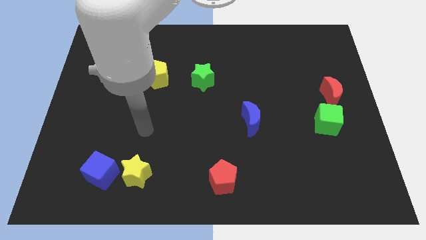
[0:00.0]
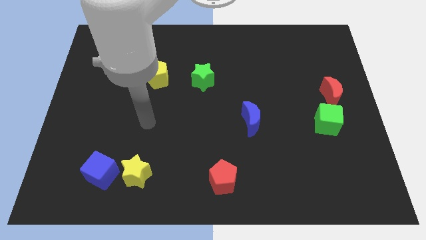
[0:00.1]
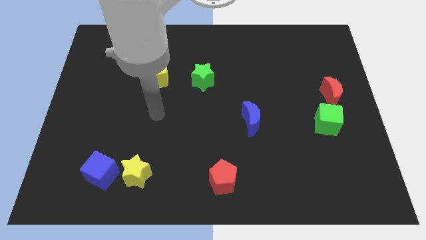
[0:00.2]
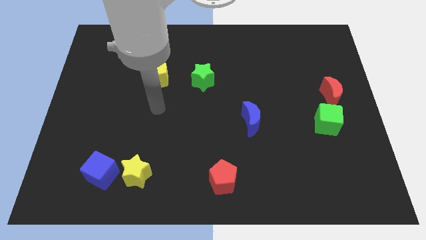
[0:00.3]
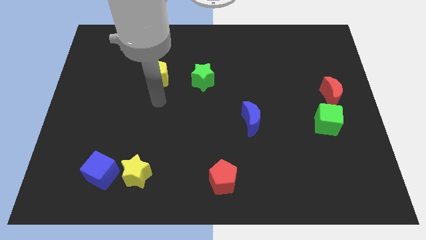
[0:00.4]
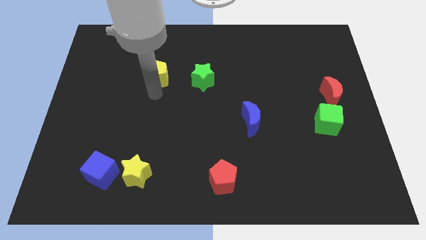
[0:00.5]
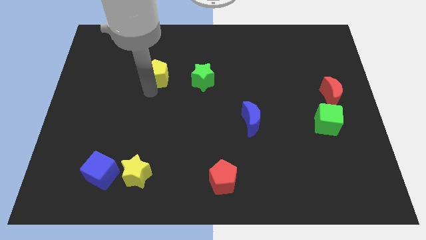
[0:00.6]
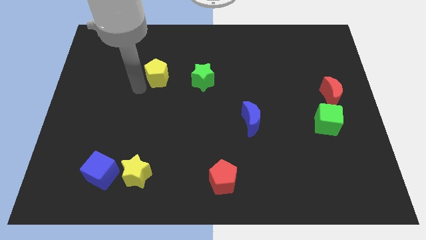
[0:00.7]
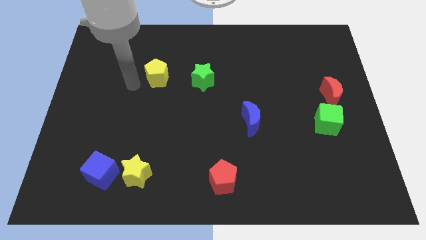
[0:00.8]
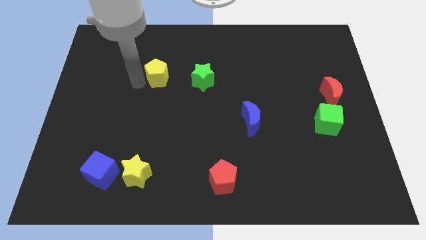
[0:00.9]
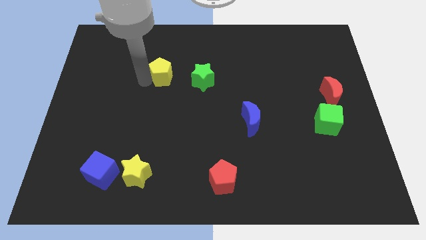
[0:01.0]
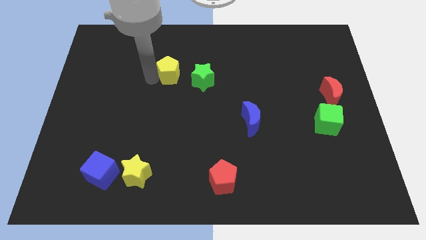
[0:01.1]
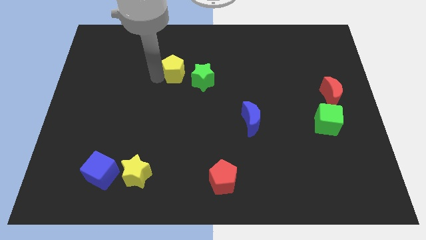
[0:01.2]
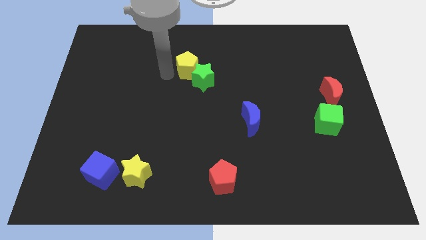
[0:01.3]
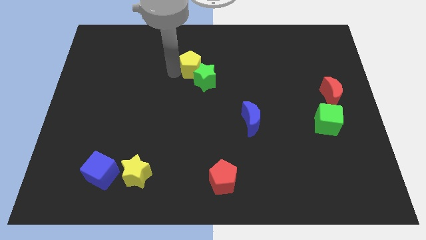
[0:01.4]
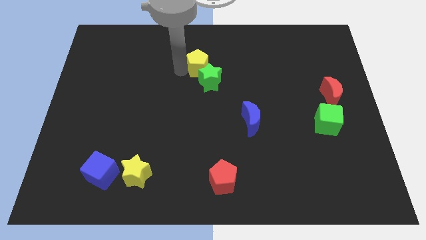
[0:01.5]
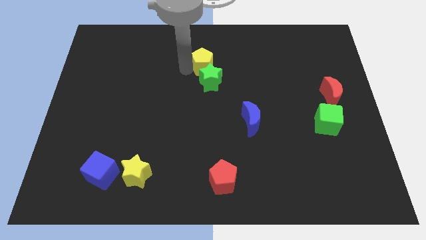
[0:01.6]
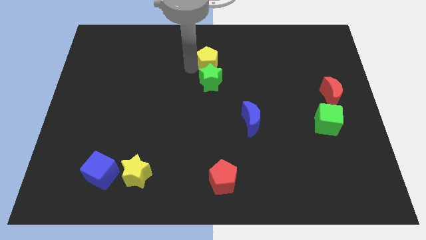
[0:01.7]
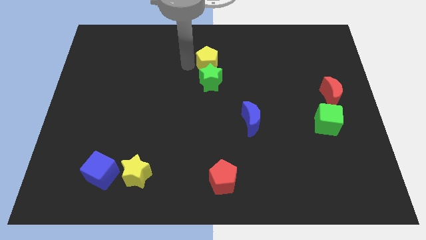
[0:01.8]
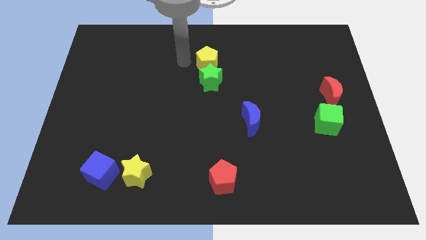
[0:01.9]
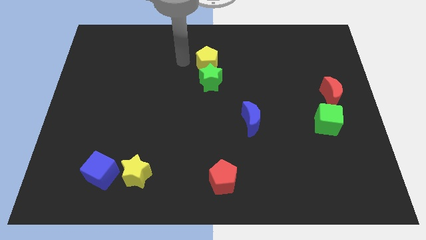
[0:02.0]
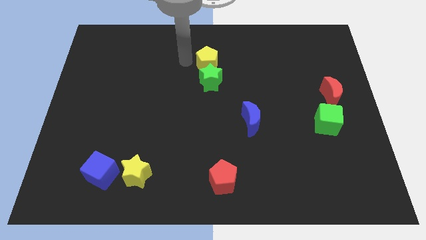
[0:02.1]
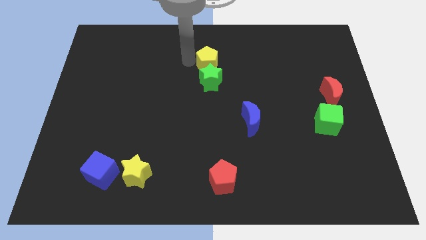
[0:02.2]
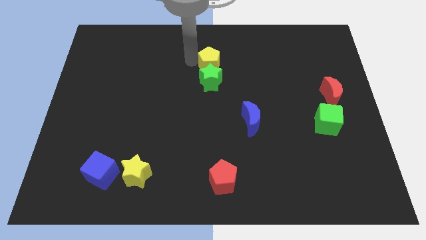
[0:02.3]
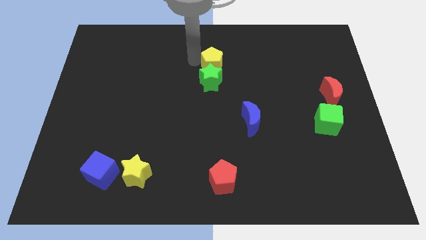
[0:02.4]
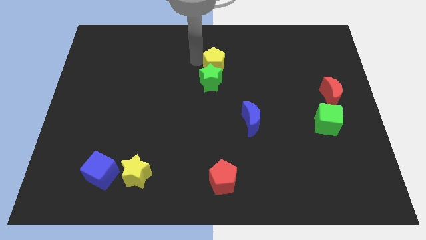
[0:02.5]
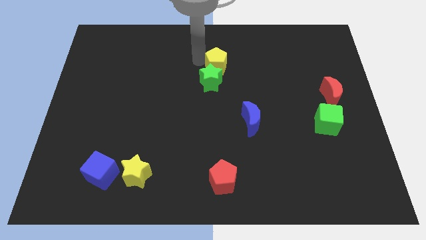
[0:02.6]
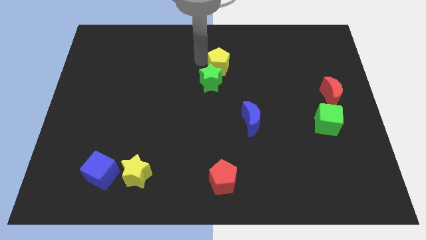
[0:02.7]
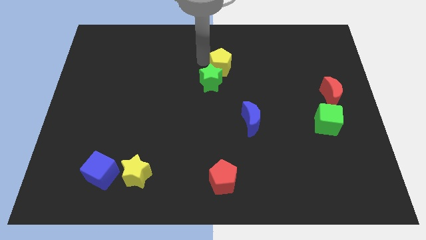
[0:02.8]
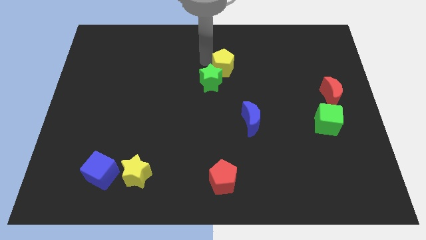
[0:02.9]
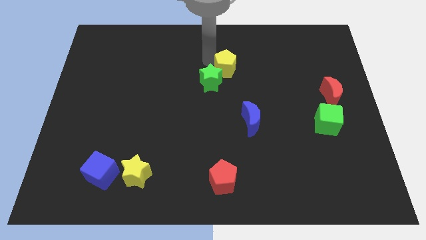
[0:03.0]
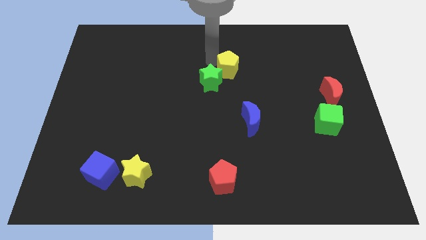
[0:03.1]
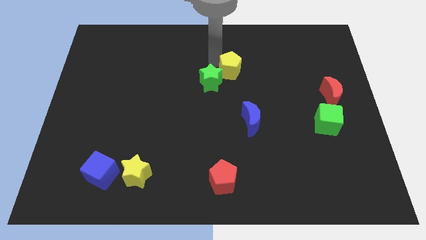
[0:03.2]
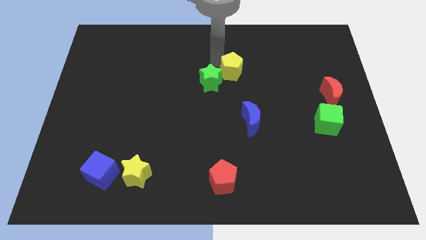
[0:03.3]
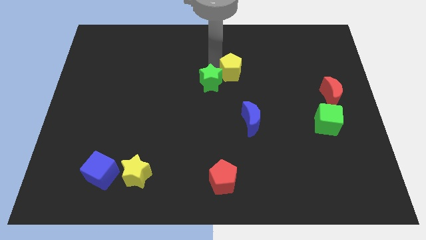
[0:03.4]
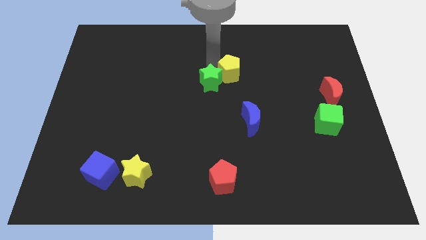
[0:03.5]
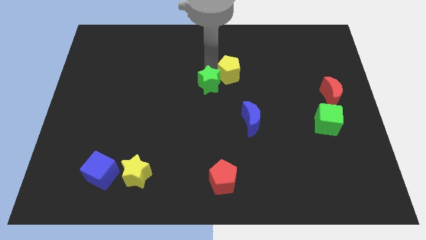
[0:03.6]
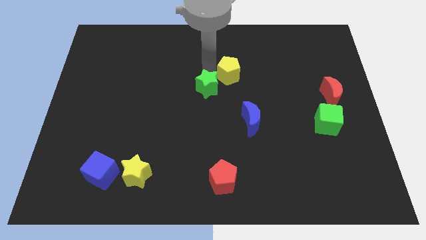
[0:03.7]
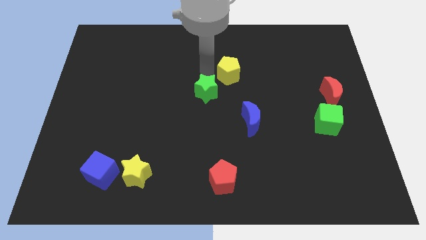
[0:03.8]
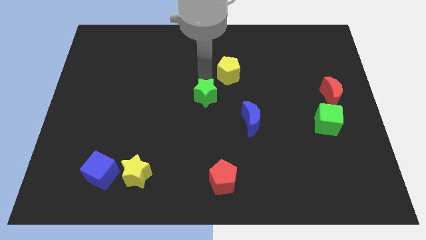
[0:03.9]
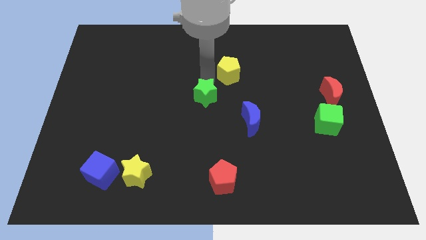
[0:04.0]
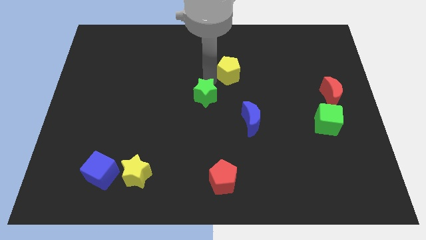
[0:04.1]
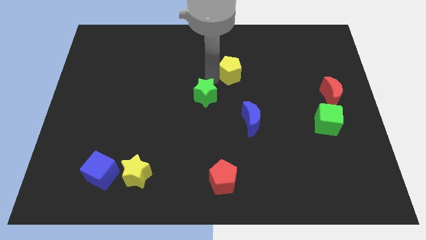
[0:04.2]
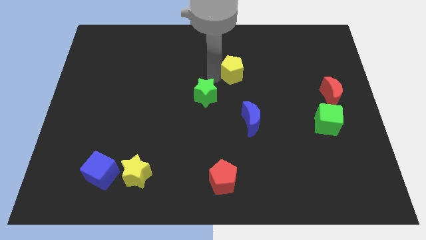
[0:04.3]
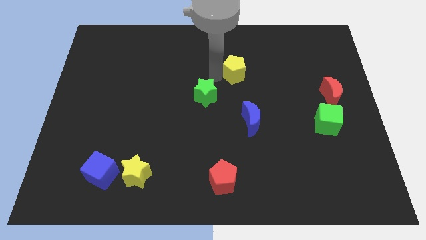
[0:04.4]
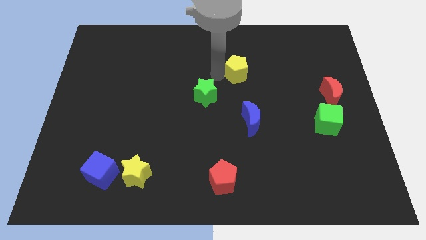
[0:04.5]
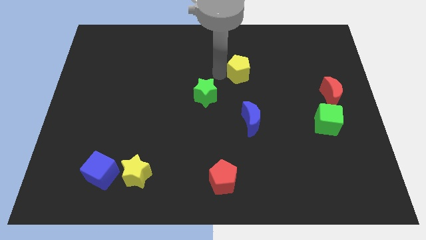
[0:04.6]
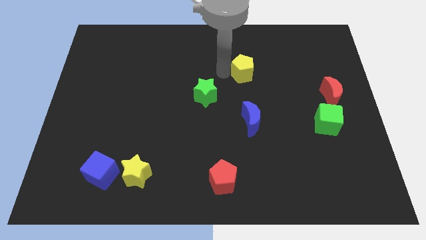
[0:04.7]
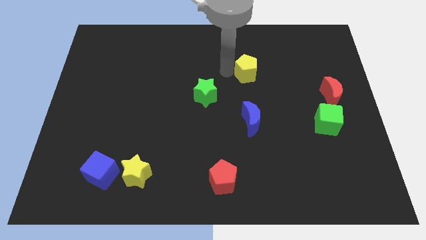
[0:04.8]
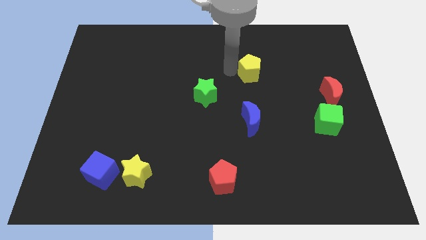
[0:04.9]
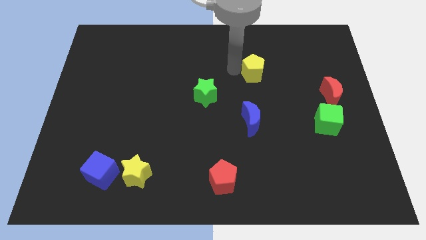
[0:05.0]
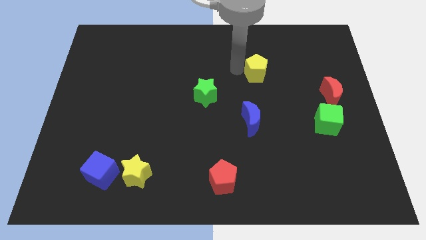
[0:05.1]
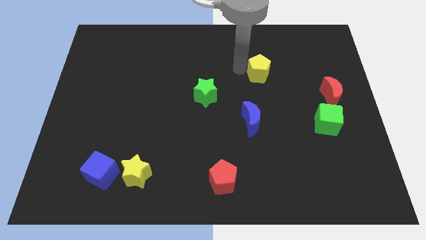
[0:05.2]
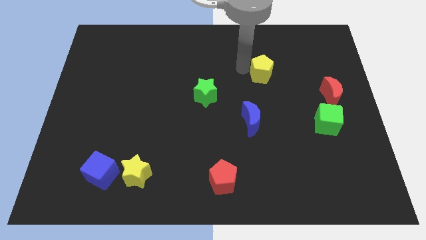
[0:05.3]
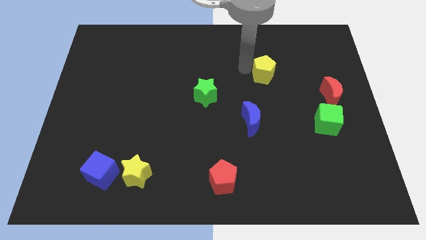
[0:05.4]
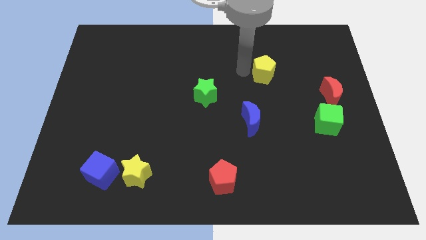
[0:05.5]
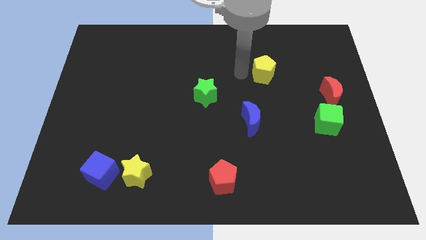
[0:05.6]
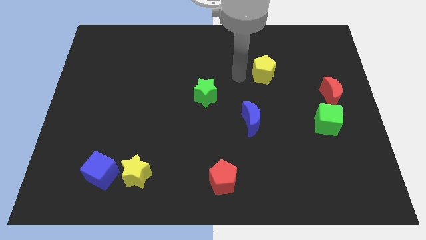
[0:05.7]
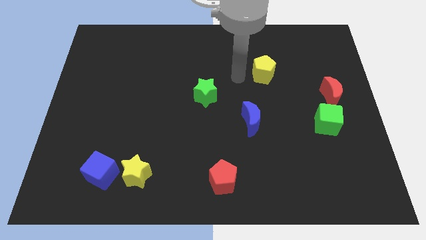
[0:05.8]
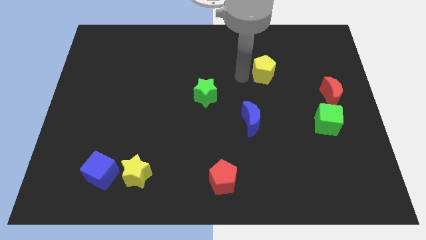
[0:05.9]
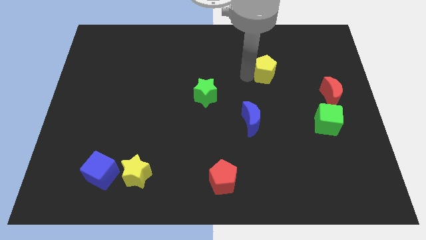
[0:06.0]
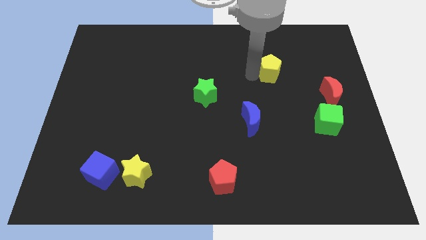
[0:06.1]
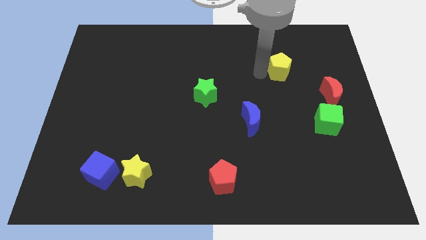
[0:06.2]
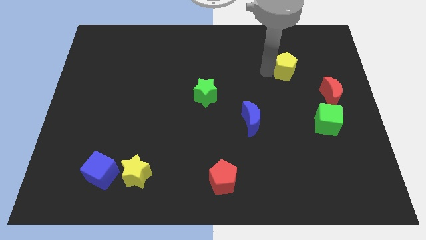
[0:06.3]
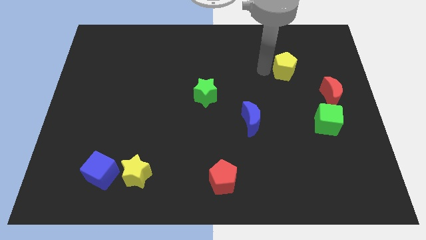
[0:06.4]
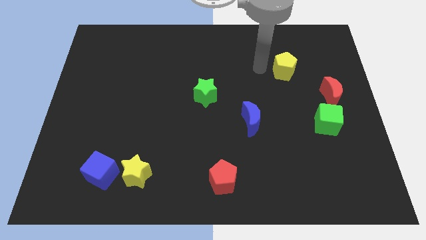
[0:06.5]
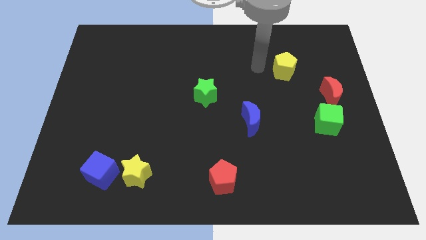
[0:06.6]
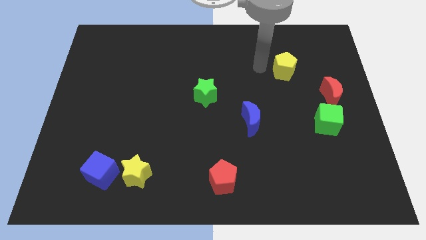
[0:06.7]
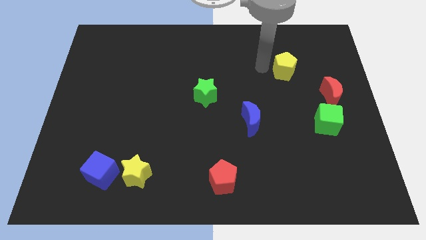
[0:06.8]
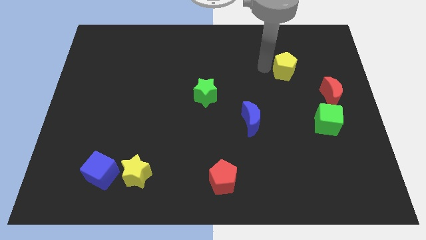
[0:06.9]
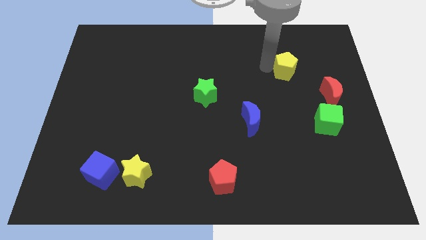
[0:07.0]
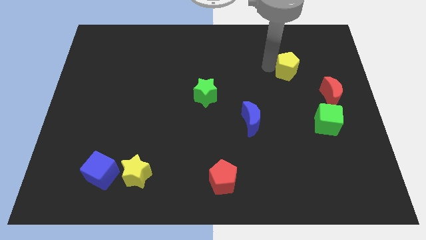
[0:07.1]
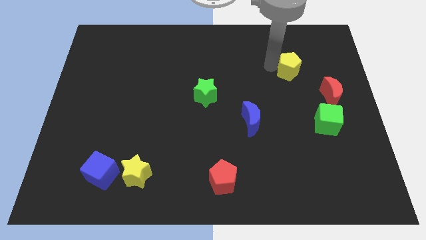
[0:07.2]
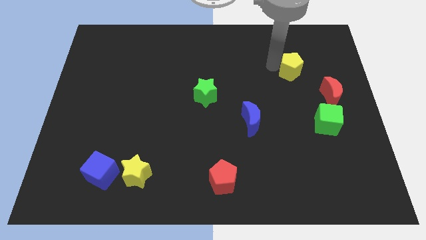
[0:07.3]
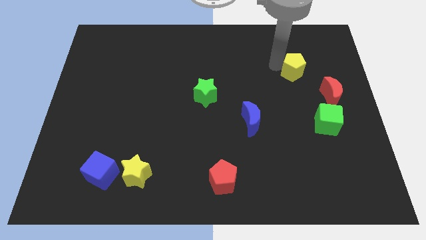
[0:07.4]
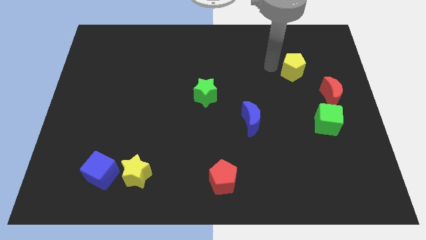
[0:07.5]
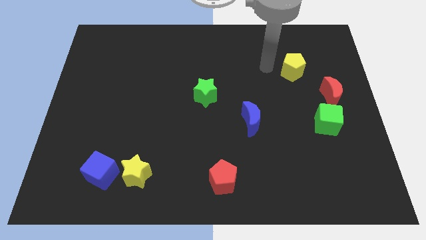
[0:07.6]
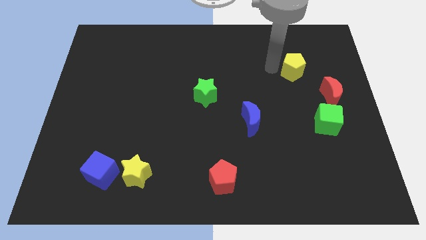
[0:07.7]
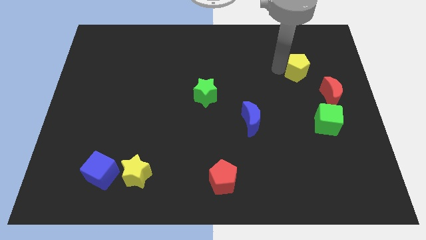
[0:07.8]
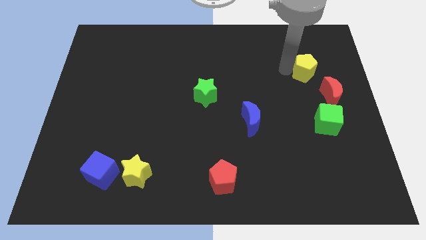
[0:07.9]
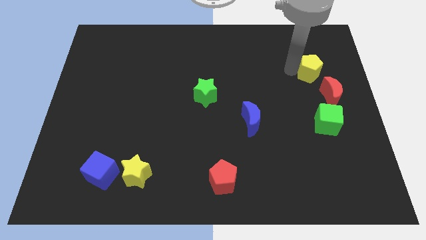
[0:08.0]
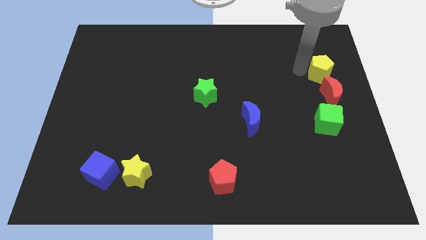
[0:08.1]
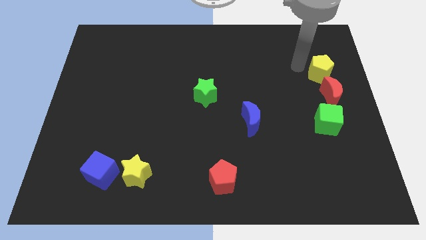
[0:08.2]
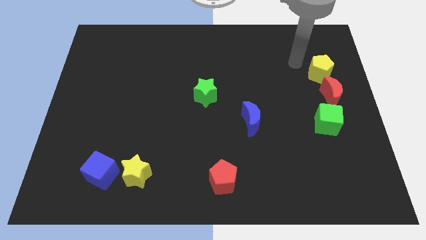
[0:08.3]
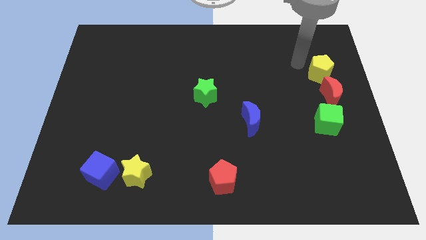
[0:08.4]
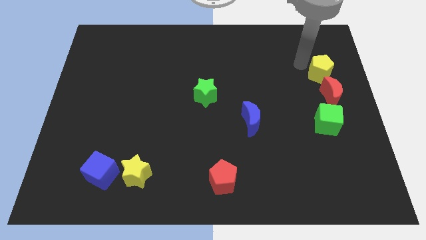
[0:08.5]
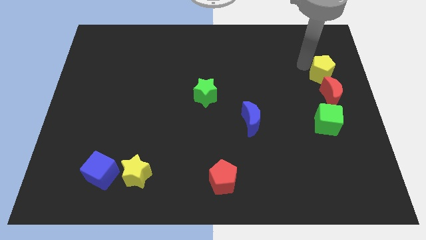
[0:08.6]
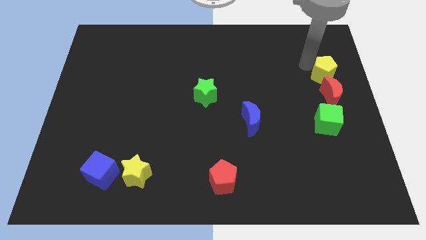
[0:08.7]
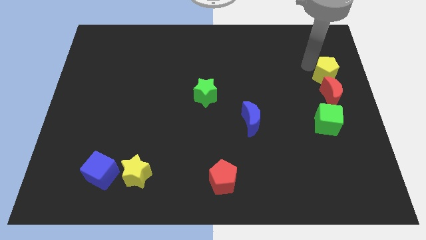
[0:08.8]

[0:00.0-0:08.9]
push the yellow pentagon to the right side of the board
